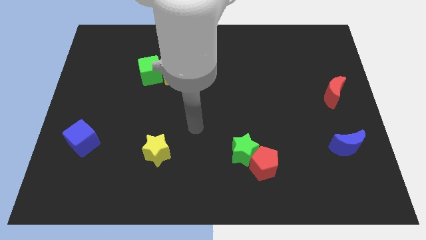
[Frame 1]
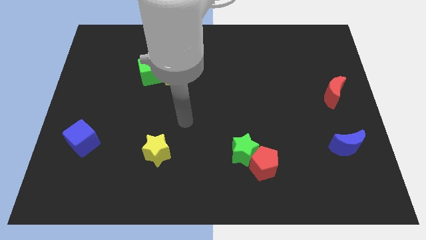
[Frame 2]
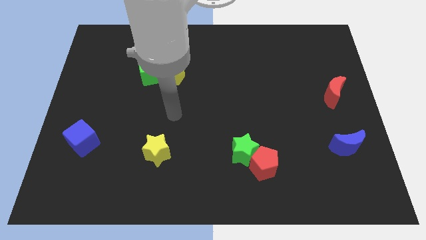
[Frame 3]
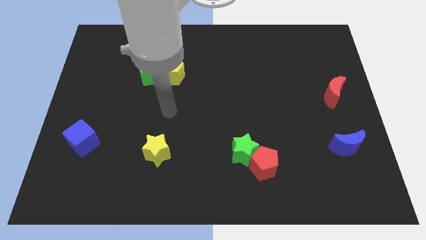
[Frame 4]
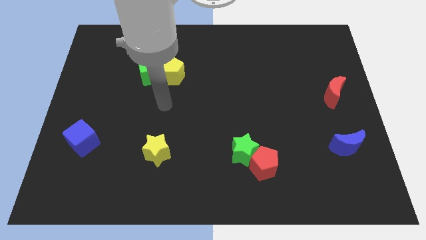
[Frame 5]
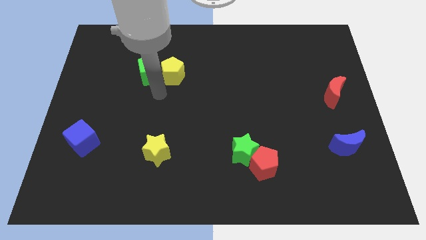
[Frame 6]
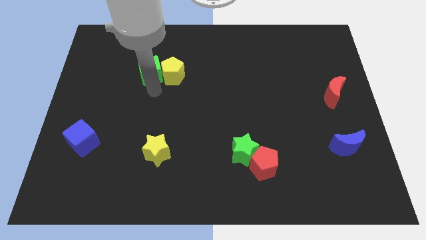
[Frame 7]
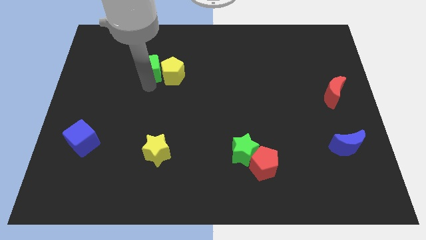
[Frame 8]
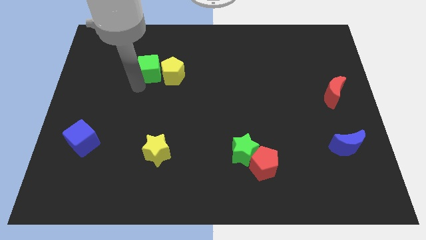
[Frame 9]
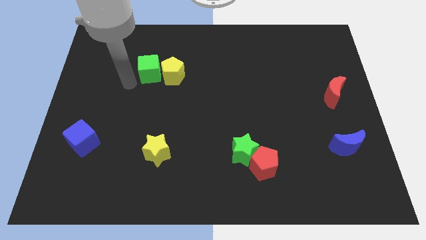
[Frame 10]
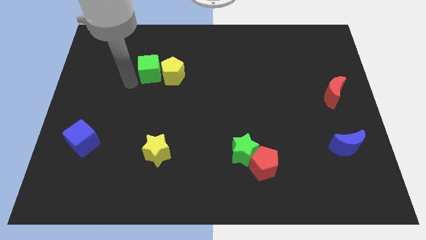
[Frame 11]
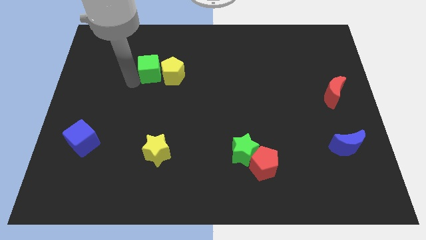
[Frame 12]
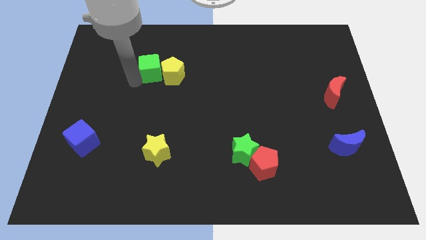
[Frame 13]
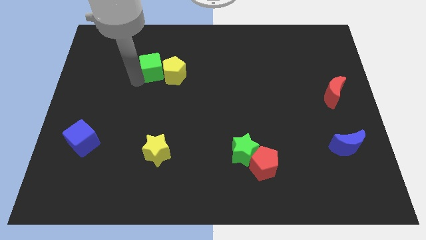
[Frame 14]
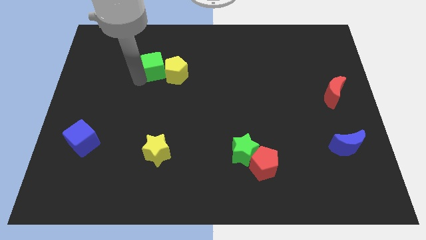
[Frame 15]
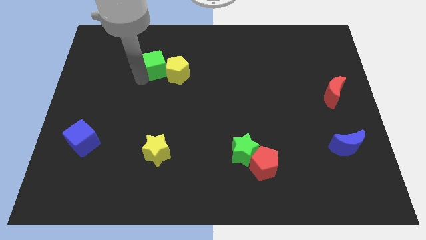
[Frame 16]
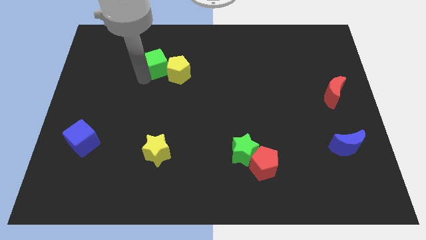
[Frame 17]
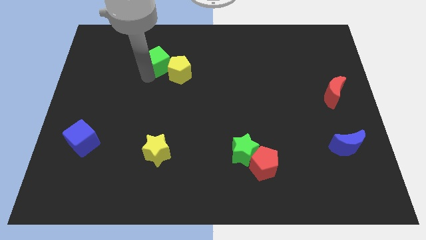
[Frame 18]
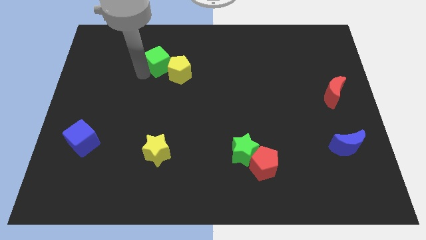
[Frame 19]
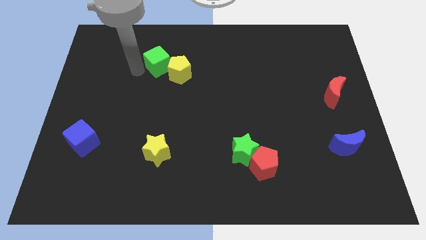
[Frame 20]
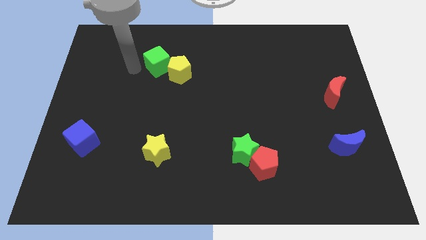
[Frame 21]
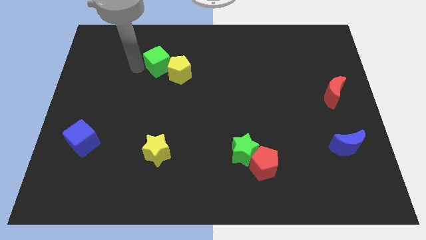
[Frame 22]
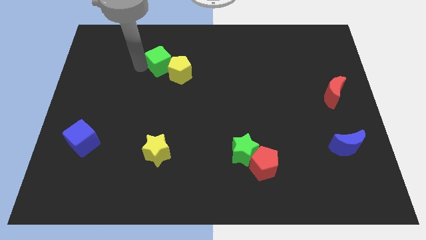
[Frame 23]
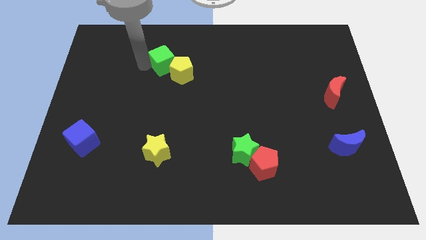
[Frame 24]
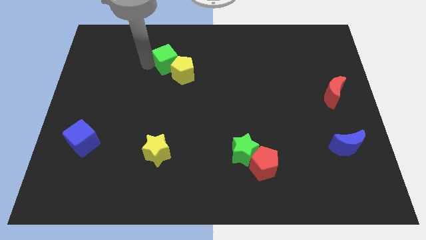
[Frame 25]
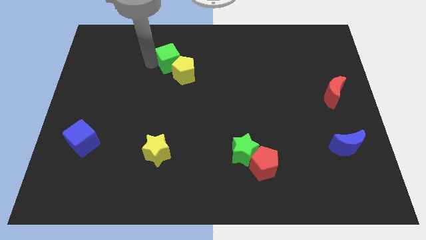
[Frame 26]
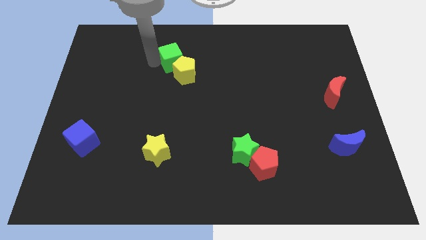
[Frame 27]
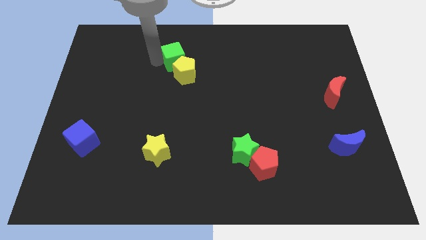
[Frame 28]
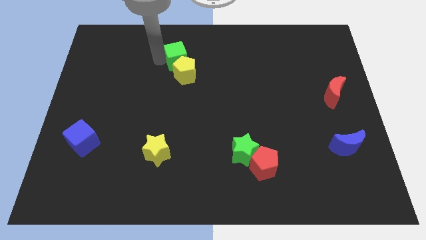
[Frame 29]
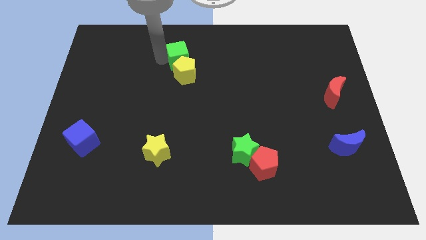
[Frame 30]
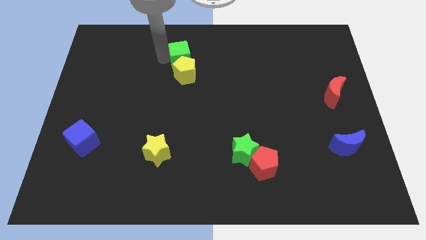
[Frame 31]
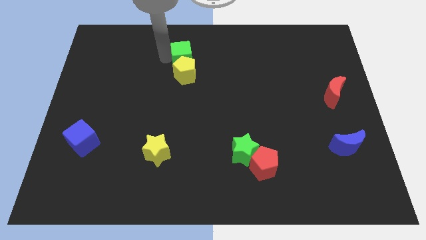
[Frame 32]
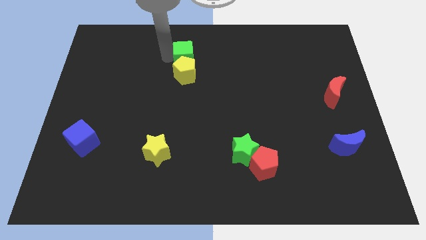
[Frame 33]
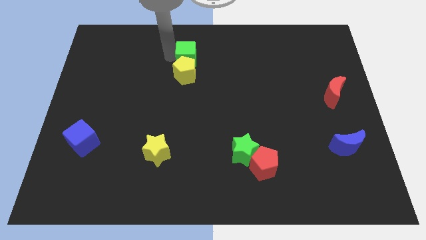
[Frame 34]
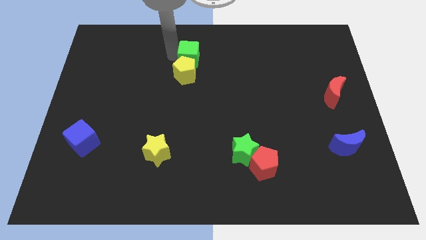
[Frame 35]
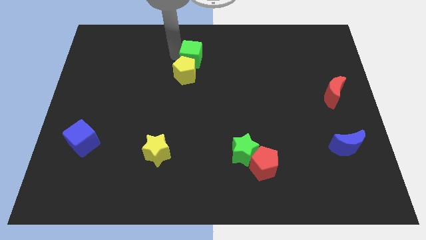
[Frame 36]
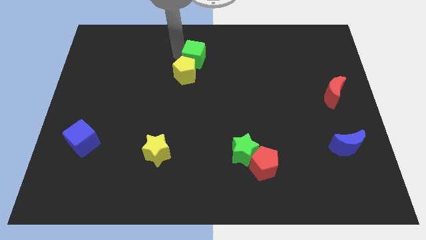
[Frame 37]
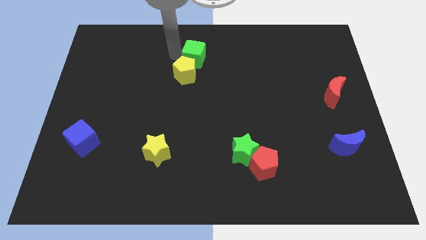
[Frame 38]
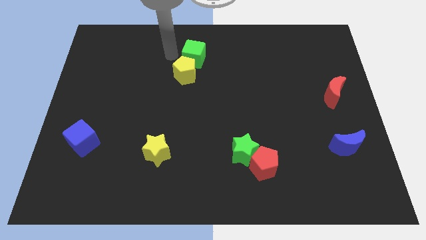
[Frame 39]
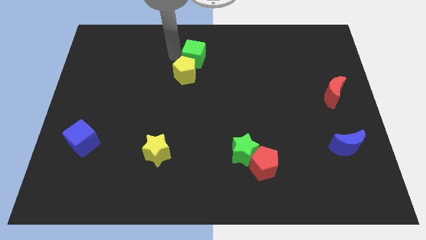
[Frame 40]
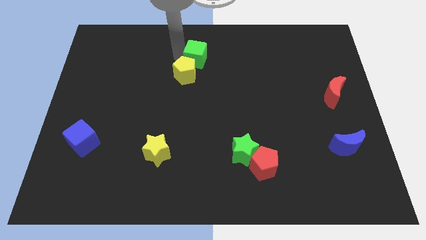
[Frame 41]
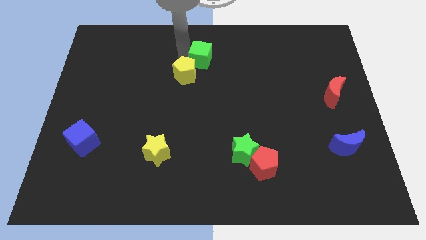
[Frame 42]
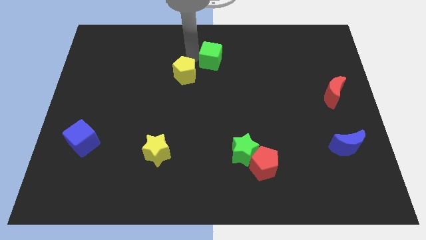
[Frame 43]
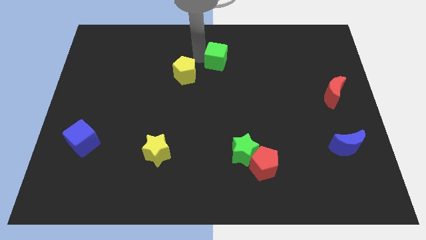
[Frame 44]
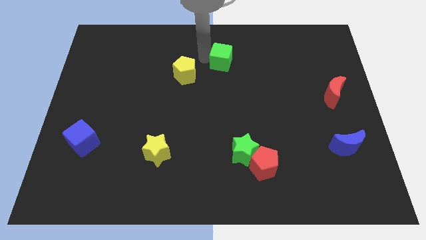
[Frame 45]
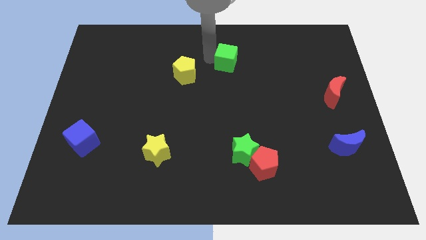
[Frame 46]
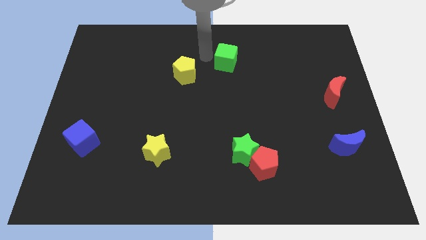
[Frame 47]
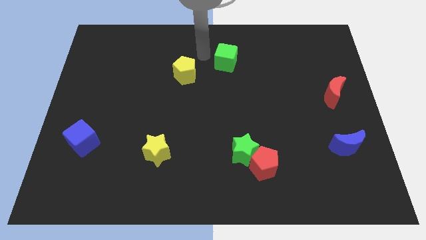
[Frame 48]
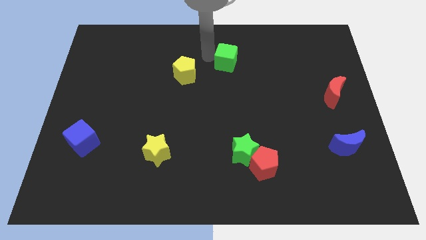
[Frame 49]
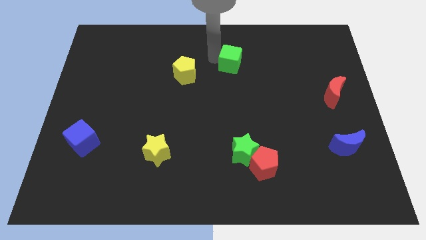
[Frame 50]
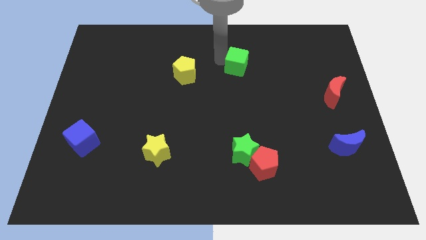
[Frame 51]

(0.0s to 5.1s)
push the green cube to the right

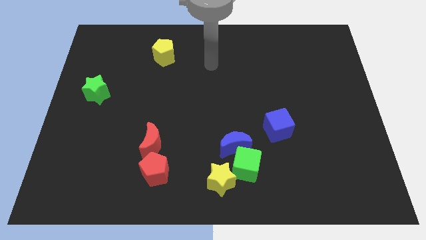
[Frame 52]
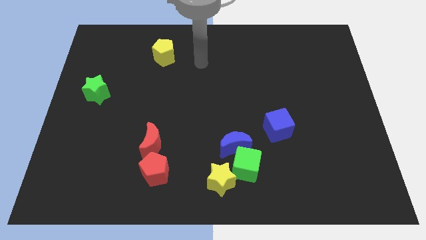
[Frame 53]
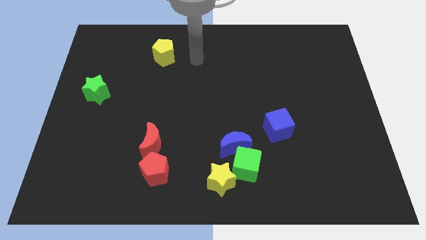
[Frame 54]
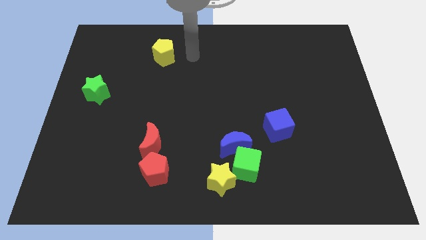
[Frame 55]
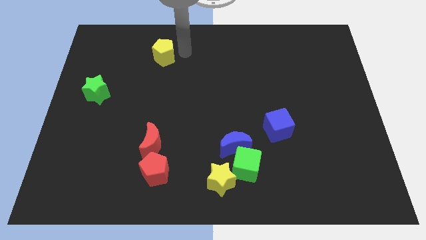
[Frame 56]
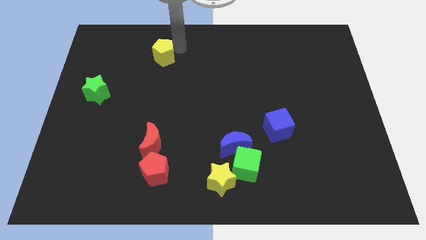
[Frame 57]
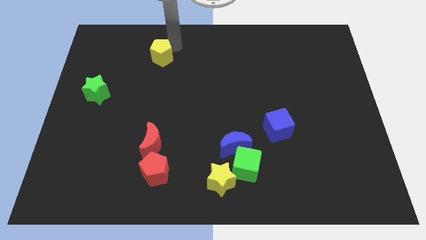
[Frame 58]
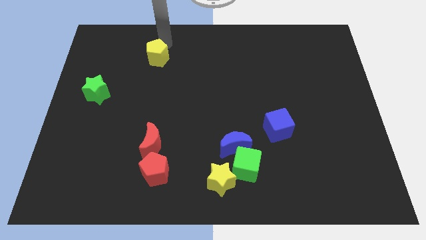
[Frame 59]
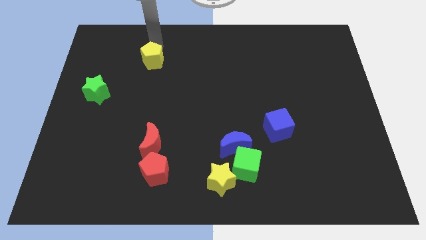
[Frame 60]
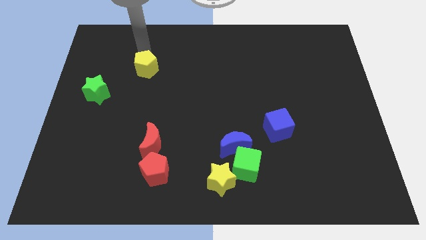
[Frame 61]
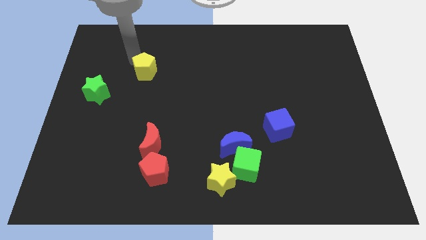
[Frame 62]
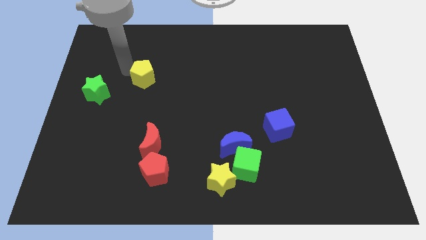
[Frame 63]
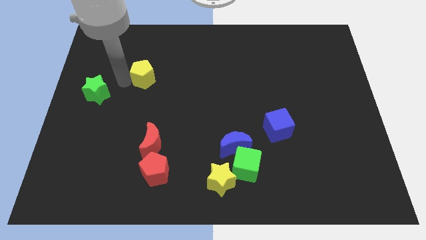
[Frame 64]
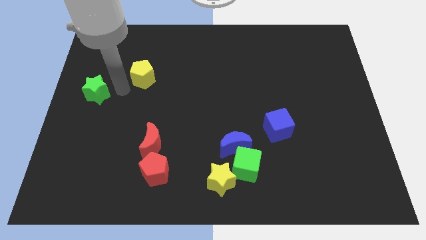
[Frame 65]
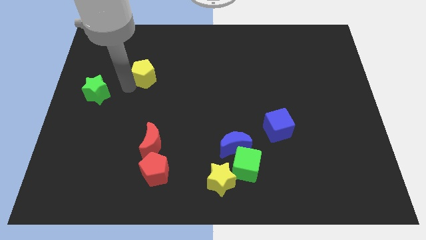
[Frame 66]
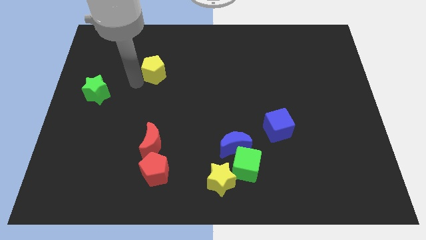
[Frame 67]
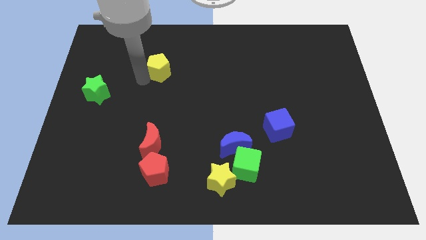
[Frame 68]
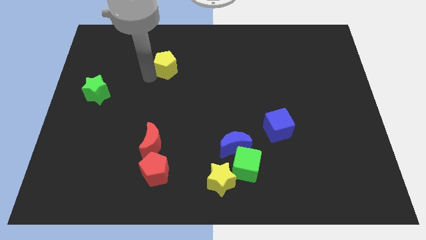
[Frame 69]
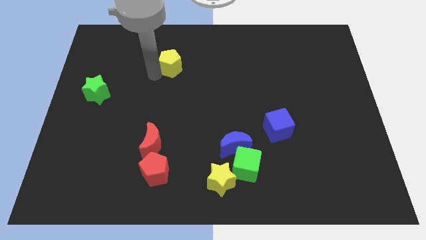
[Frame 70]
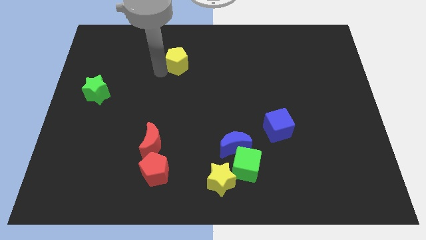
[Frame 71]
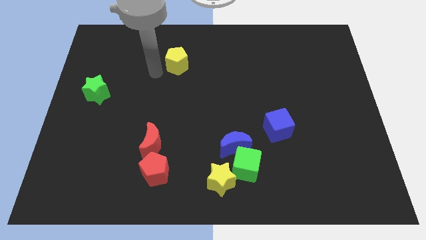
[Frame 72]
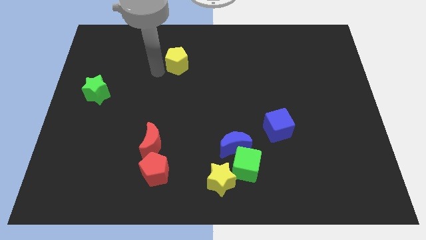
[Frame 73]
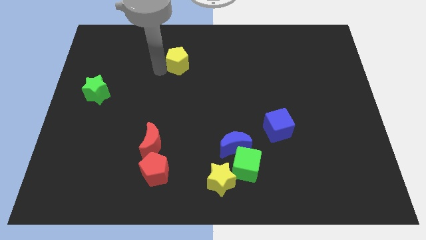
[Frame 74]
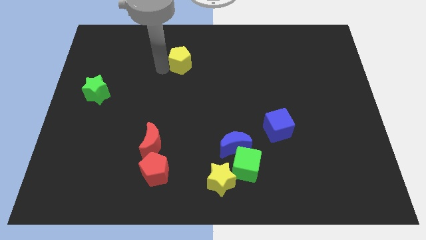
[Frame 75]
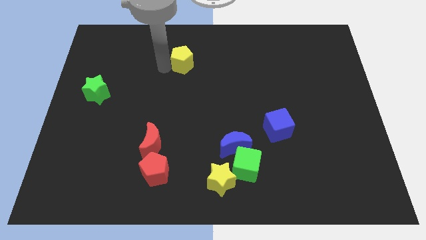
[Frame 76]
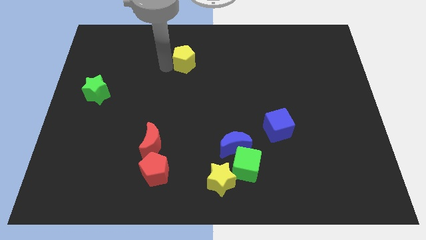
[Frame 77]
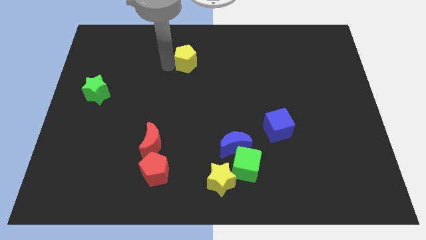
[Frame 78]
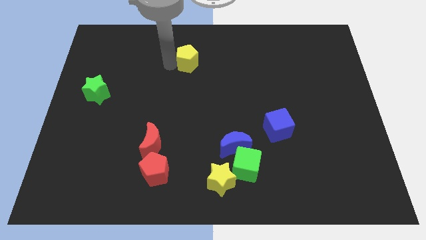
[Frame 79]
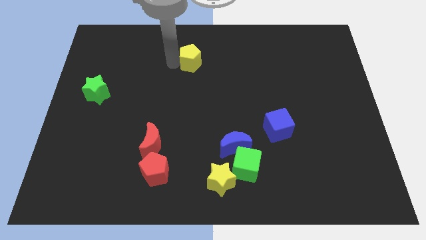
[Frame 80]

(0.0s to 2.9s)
slide the yellow pentagon a bit to the right

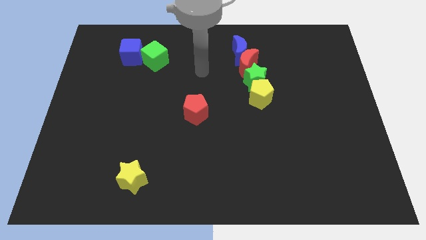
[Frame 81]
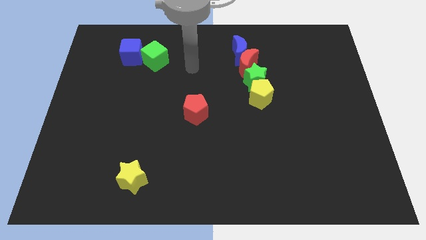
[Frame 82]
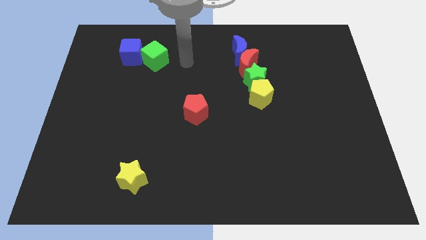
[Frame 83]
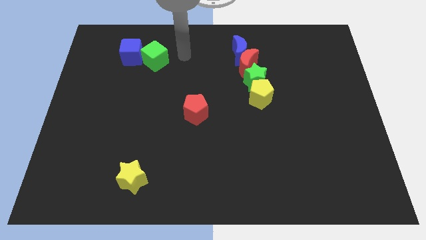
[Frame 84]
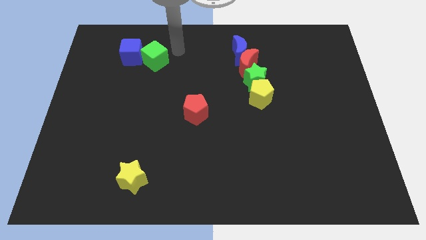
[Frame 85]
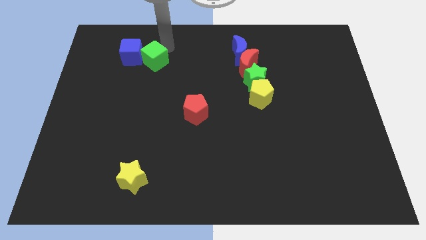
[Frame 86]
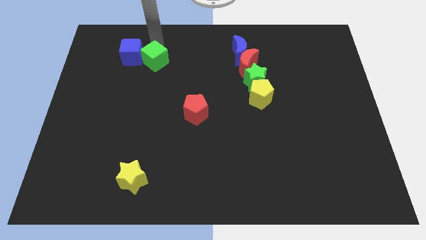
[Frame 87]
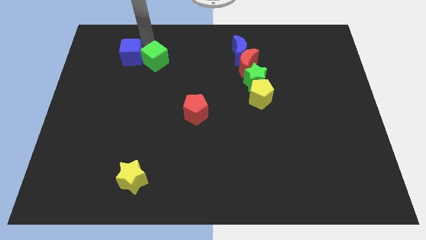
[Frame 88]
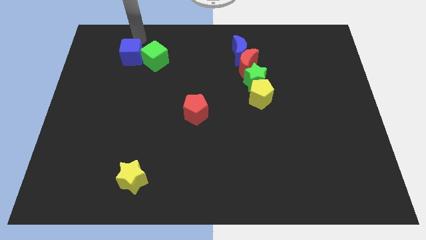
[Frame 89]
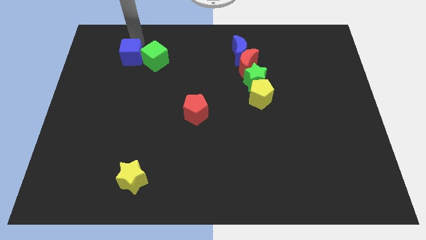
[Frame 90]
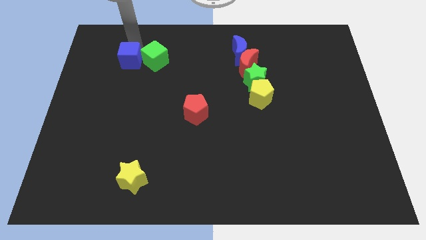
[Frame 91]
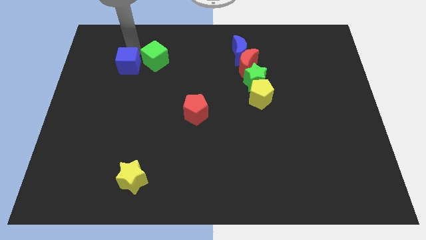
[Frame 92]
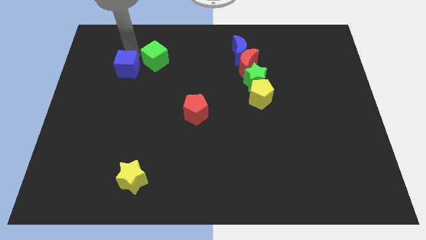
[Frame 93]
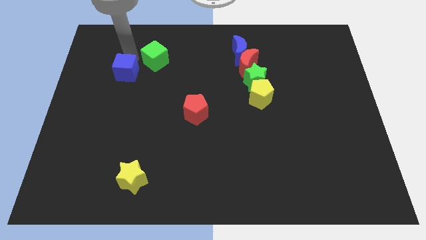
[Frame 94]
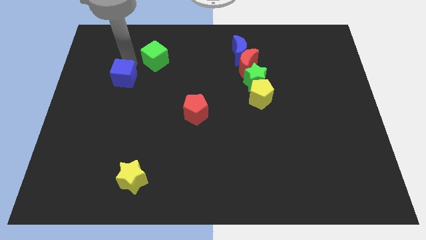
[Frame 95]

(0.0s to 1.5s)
move the blue cube slightly downwards
